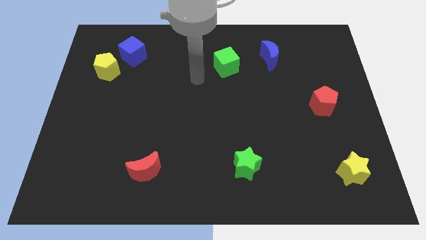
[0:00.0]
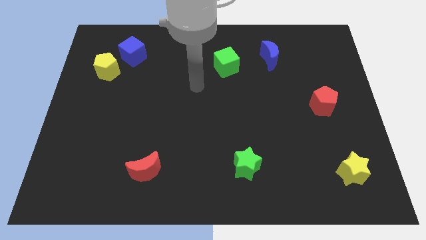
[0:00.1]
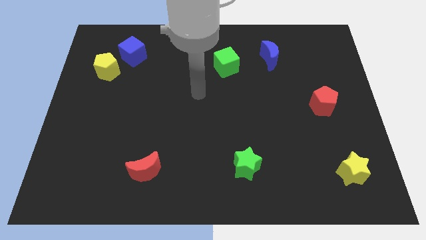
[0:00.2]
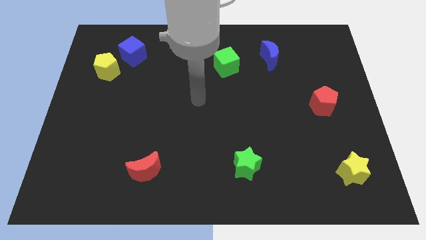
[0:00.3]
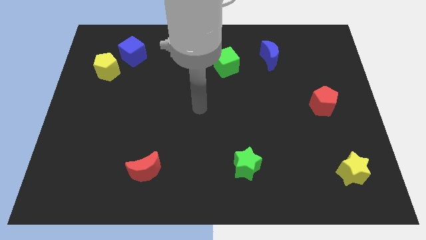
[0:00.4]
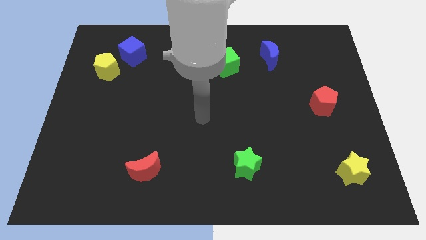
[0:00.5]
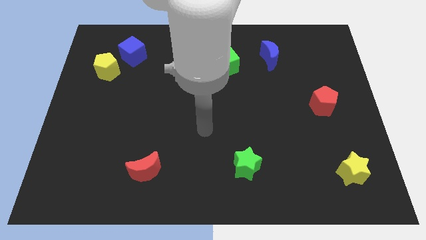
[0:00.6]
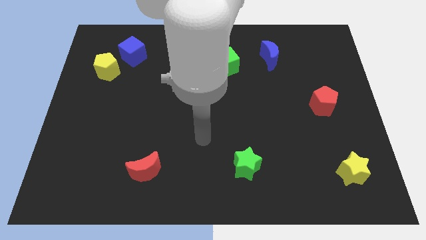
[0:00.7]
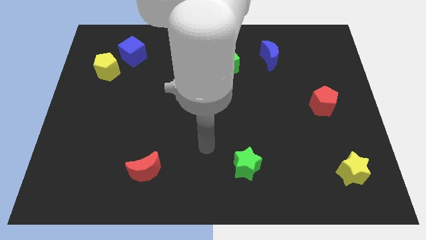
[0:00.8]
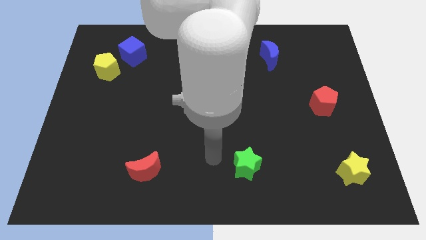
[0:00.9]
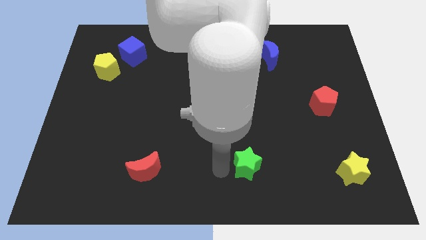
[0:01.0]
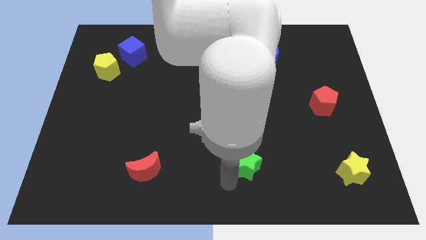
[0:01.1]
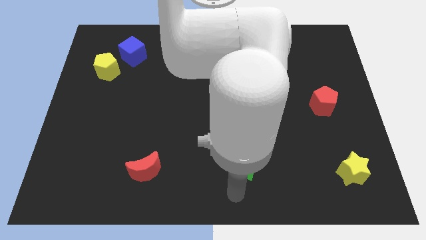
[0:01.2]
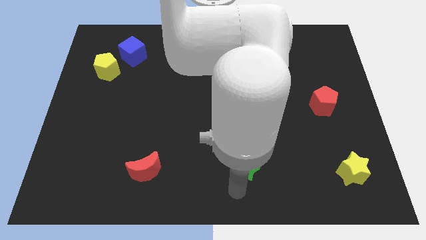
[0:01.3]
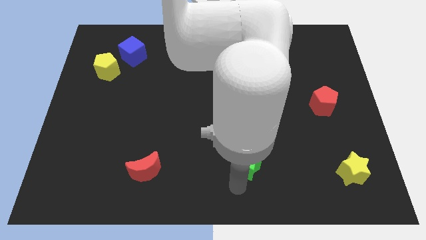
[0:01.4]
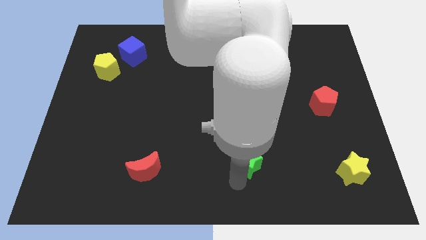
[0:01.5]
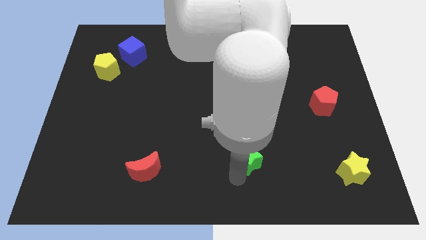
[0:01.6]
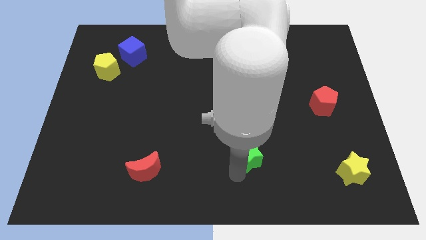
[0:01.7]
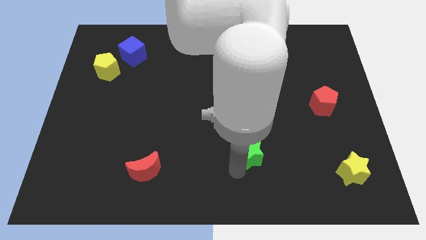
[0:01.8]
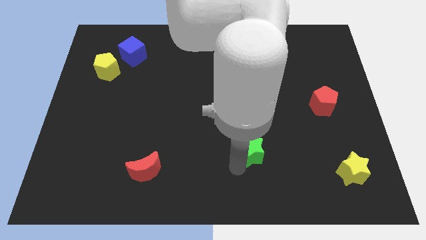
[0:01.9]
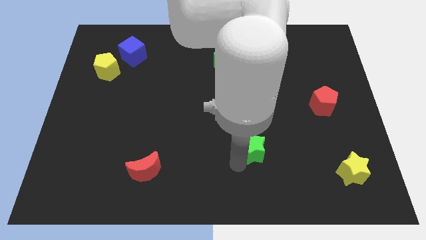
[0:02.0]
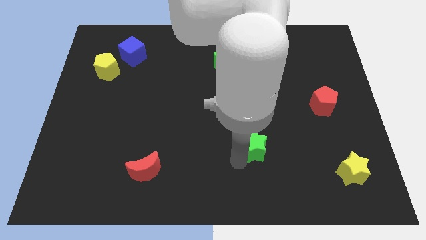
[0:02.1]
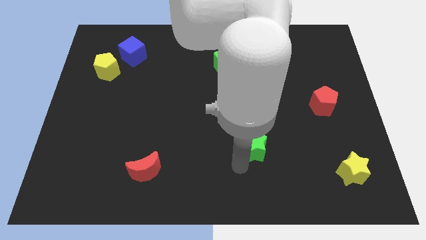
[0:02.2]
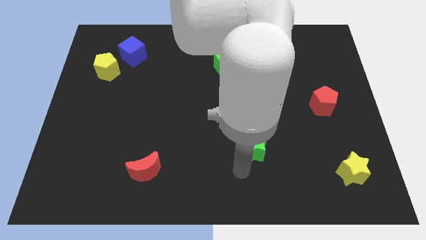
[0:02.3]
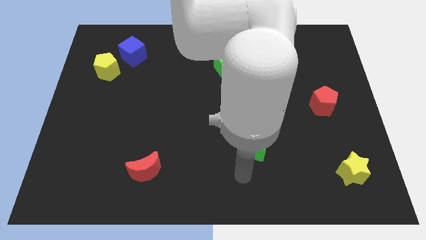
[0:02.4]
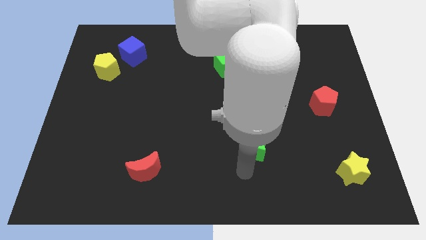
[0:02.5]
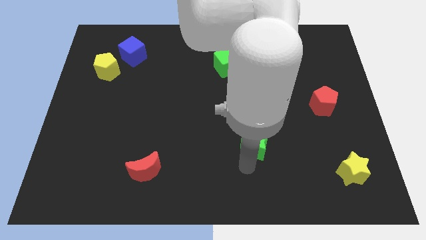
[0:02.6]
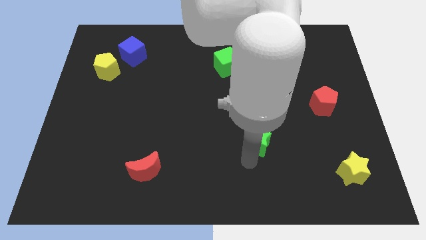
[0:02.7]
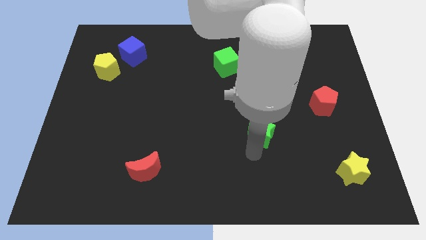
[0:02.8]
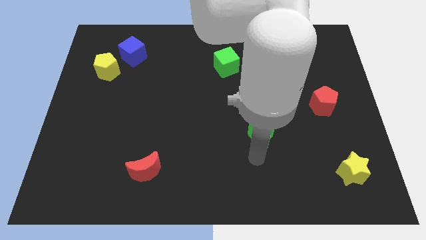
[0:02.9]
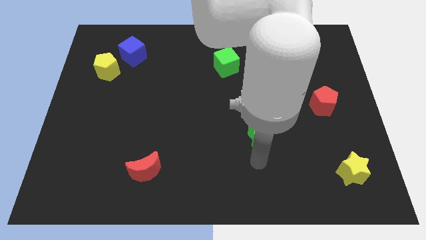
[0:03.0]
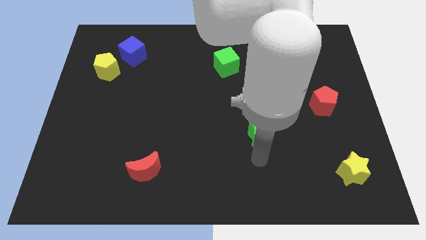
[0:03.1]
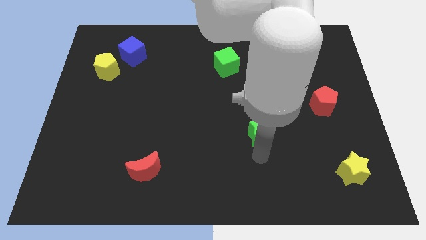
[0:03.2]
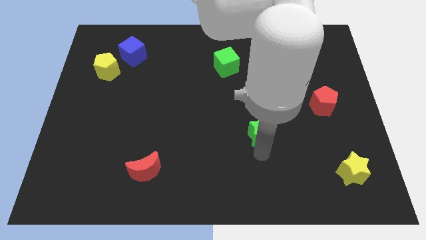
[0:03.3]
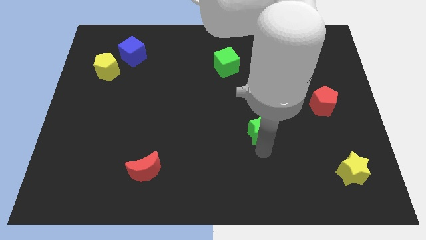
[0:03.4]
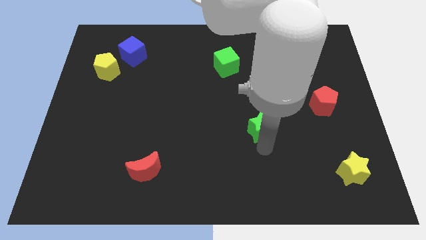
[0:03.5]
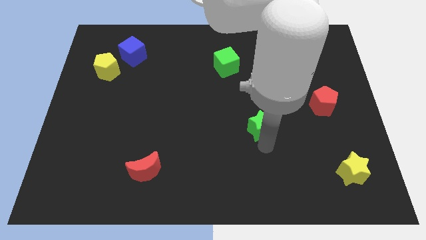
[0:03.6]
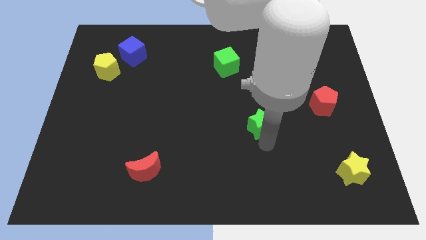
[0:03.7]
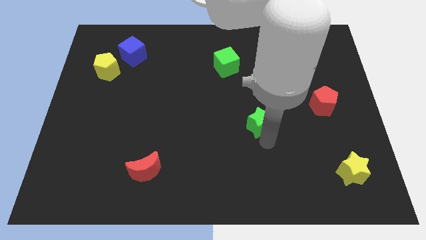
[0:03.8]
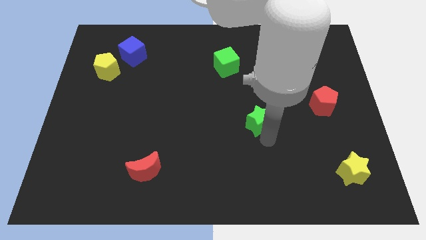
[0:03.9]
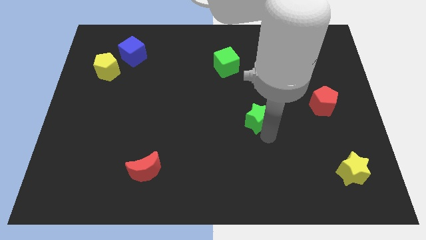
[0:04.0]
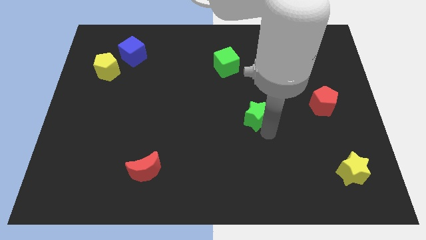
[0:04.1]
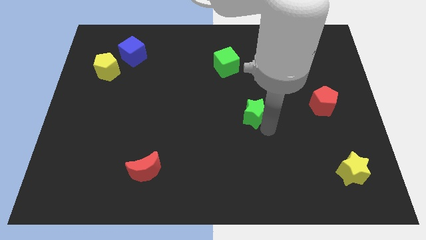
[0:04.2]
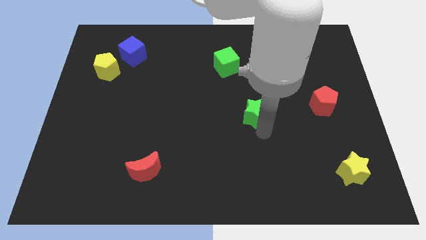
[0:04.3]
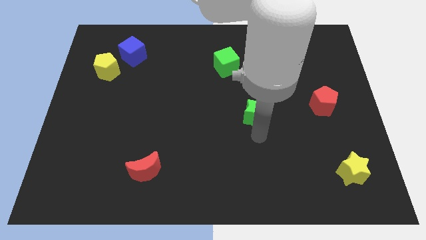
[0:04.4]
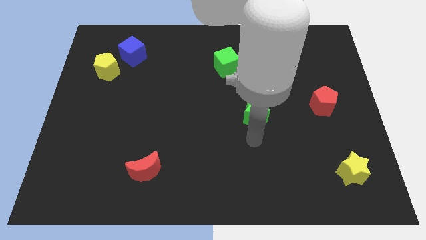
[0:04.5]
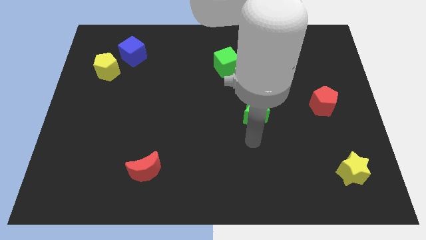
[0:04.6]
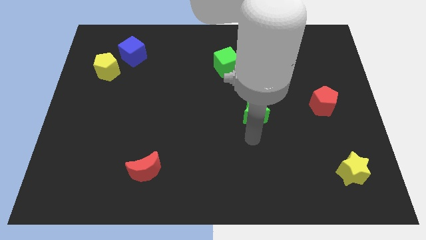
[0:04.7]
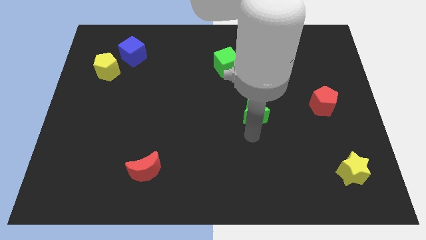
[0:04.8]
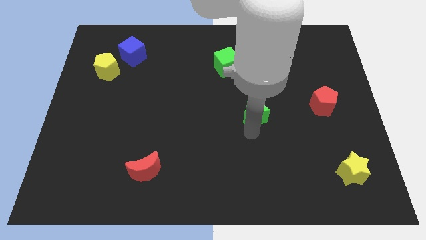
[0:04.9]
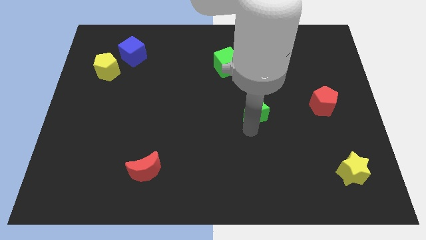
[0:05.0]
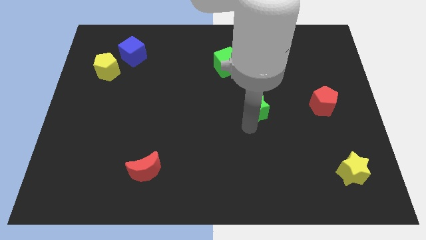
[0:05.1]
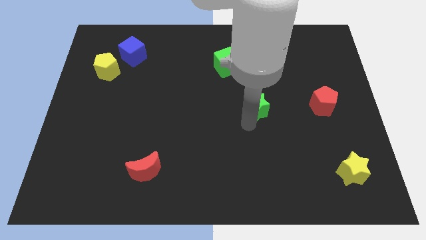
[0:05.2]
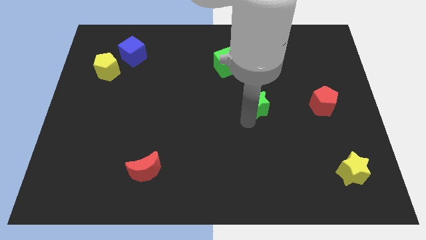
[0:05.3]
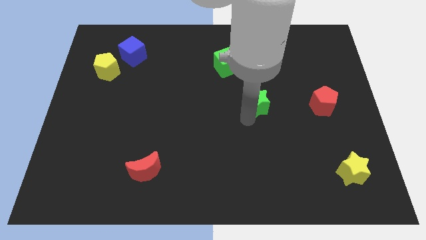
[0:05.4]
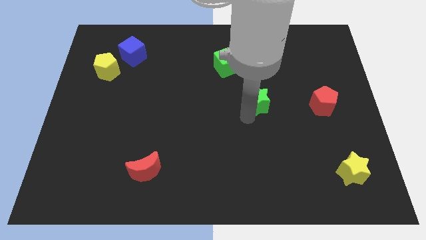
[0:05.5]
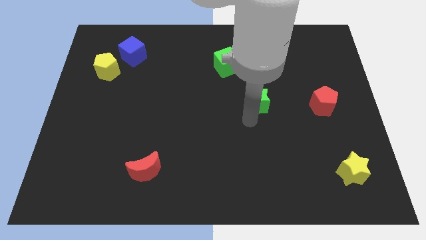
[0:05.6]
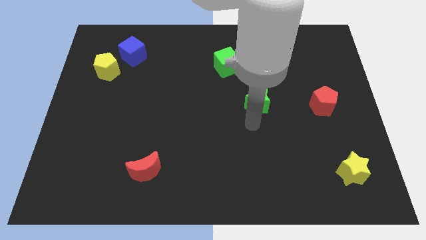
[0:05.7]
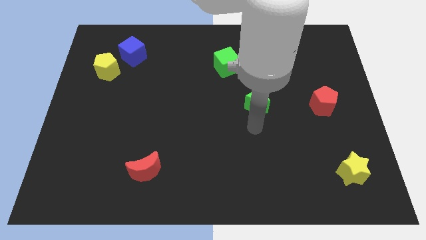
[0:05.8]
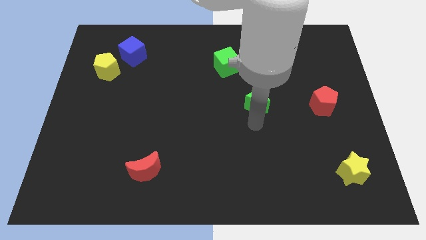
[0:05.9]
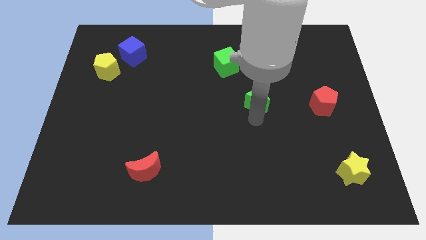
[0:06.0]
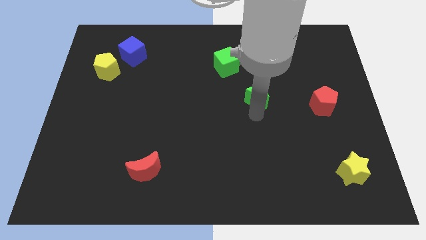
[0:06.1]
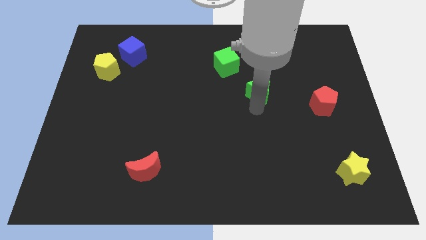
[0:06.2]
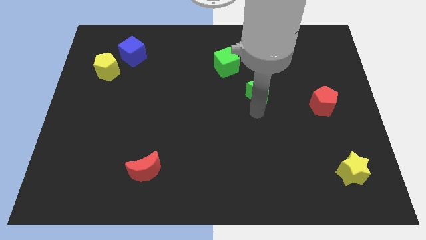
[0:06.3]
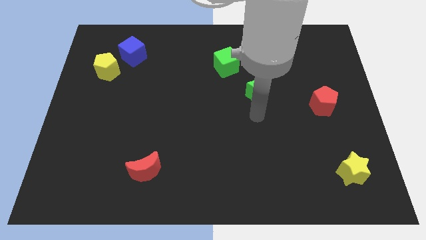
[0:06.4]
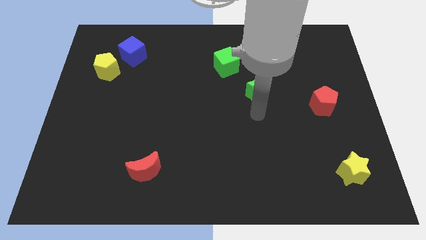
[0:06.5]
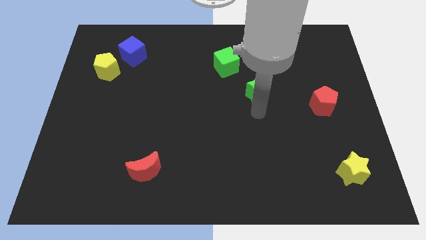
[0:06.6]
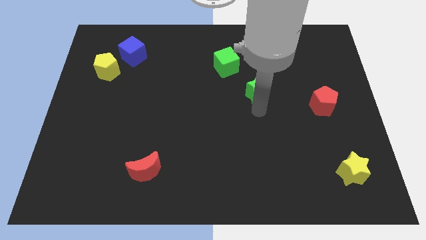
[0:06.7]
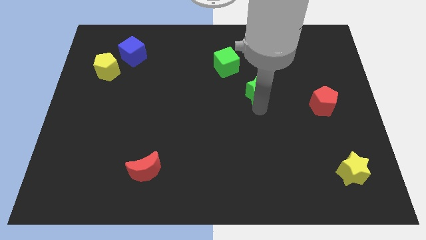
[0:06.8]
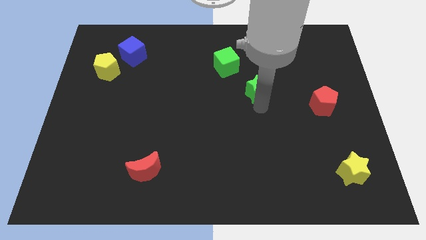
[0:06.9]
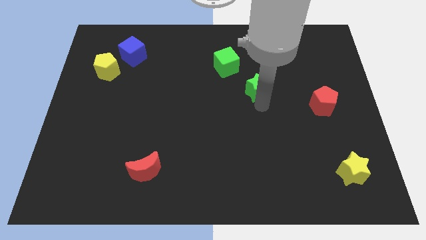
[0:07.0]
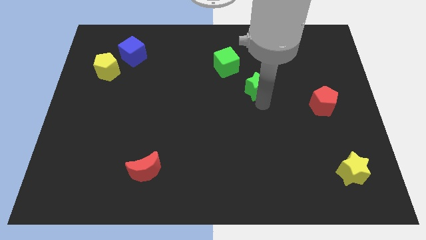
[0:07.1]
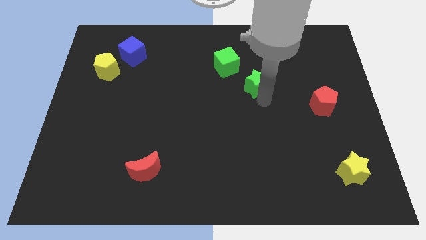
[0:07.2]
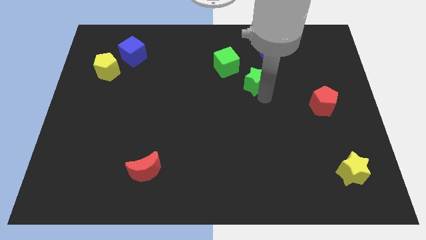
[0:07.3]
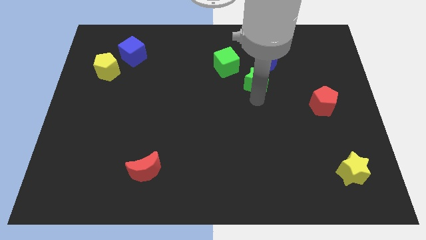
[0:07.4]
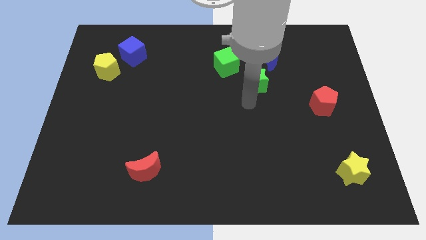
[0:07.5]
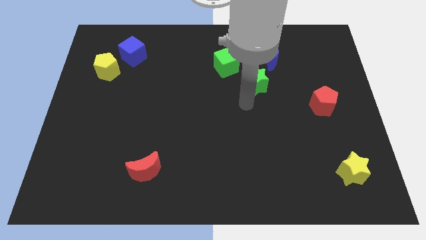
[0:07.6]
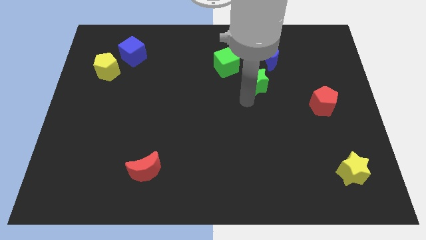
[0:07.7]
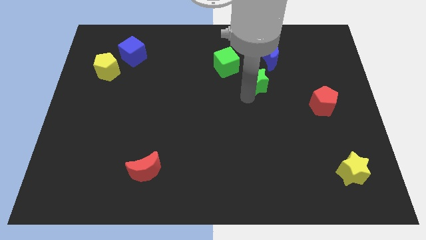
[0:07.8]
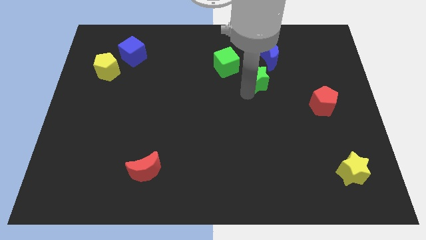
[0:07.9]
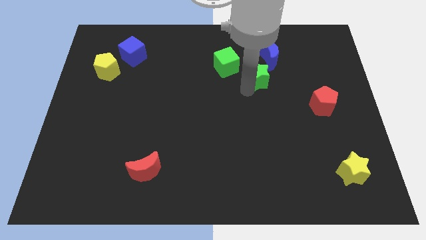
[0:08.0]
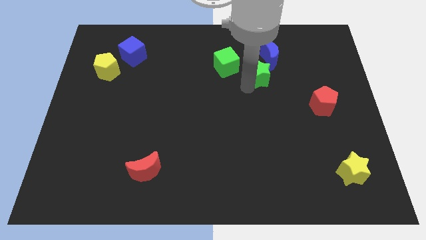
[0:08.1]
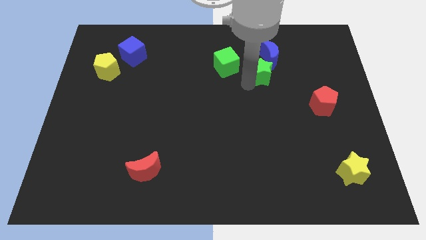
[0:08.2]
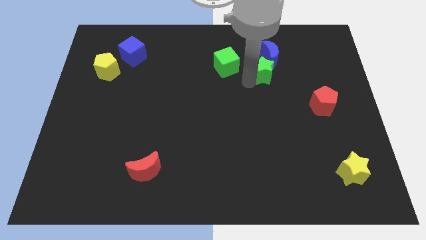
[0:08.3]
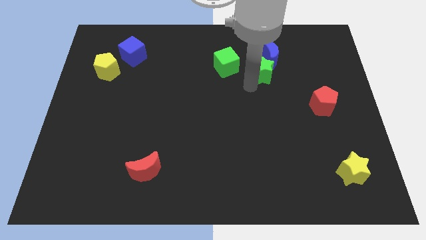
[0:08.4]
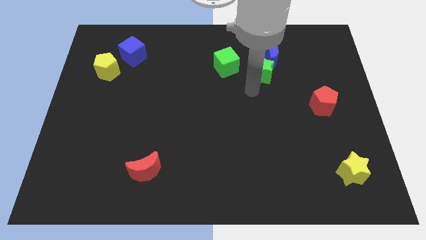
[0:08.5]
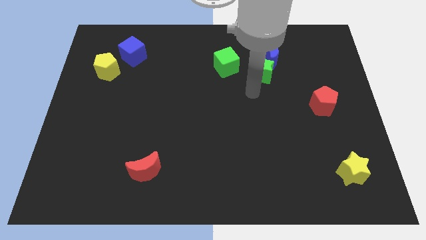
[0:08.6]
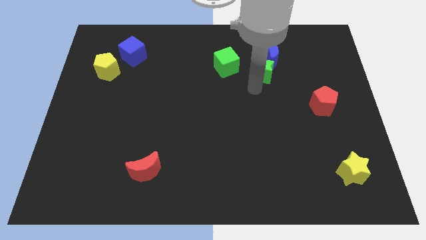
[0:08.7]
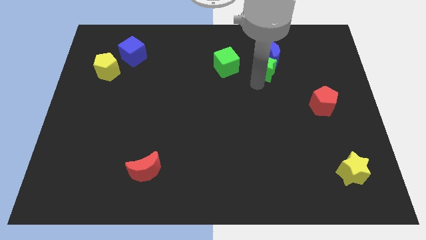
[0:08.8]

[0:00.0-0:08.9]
slide the green star close to the blue moon
